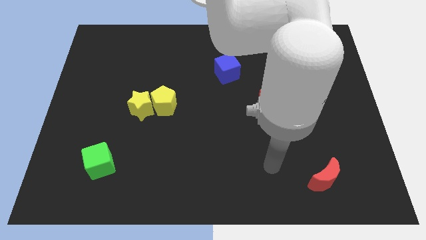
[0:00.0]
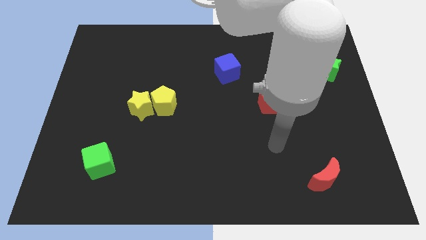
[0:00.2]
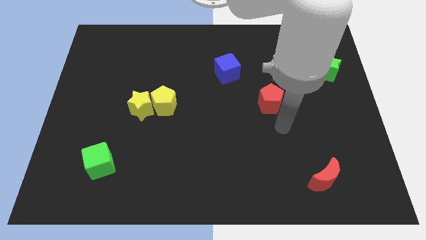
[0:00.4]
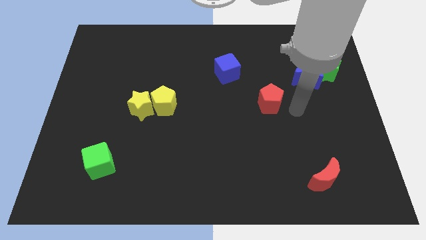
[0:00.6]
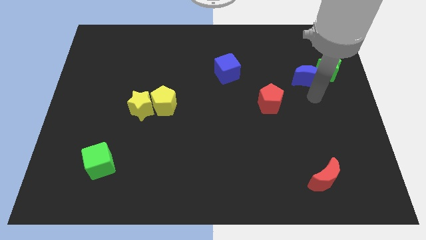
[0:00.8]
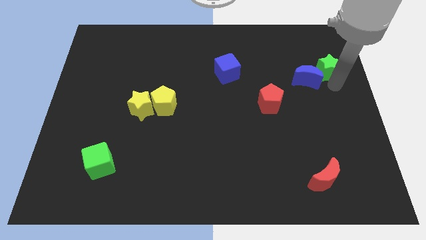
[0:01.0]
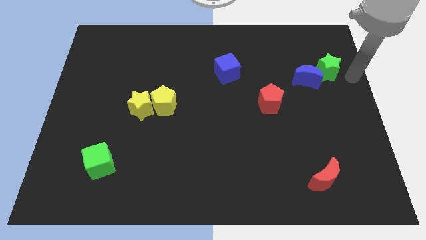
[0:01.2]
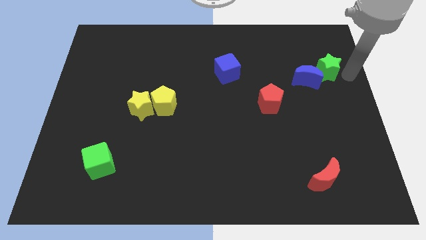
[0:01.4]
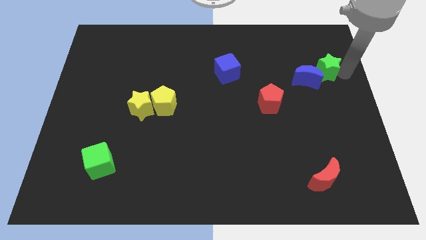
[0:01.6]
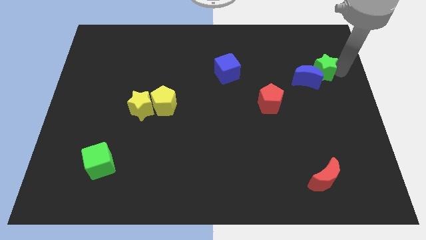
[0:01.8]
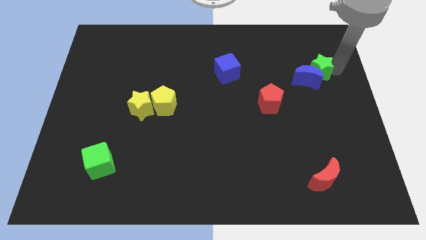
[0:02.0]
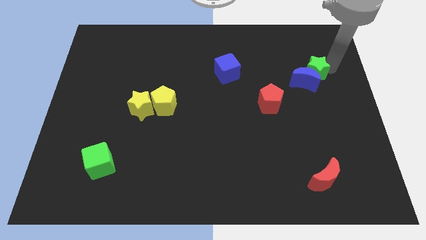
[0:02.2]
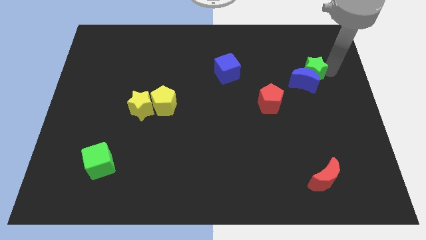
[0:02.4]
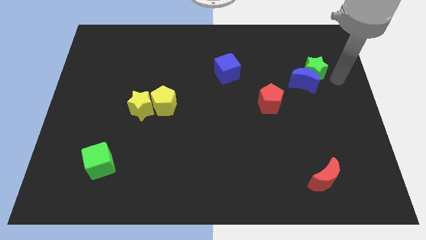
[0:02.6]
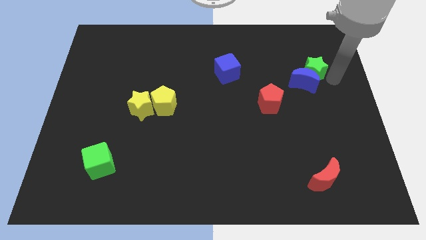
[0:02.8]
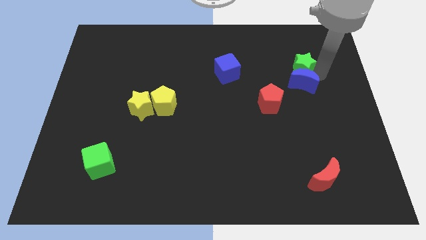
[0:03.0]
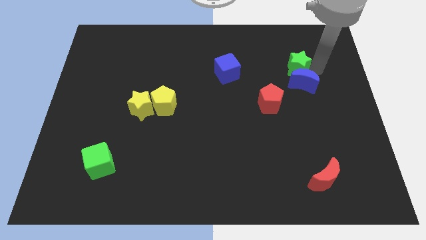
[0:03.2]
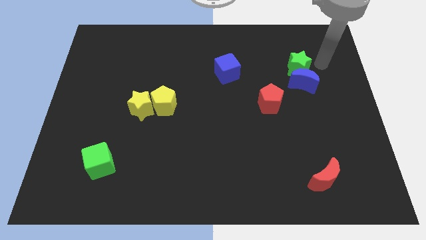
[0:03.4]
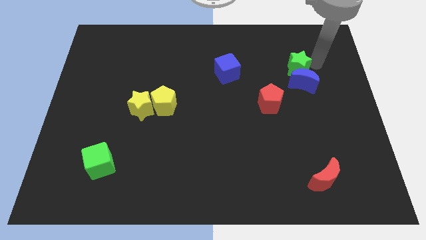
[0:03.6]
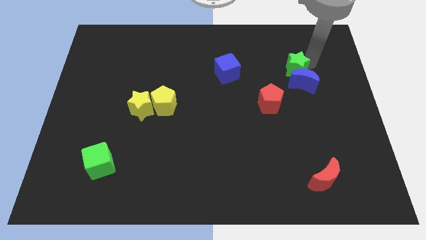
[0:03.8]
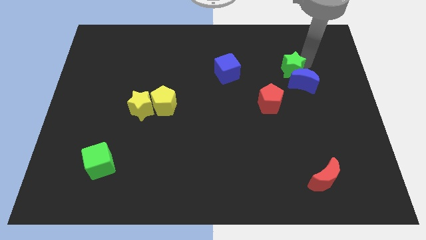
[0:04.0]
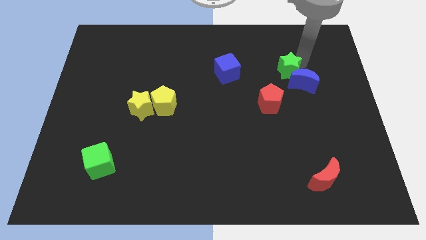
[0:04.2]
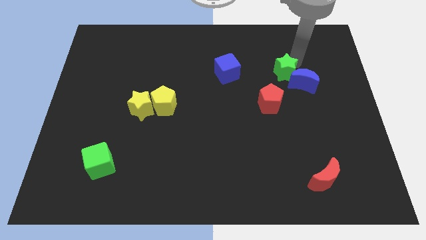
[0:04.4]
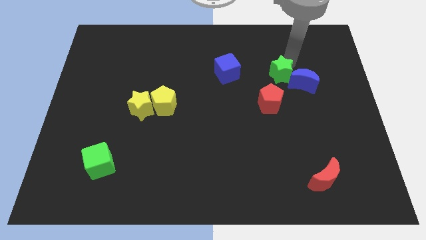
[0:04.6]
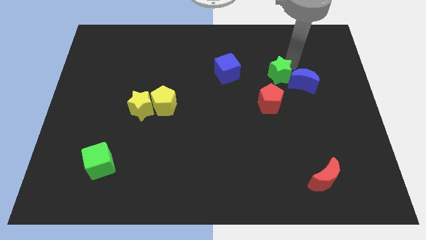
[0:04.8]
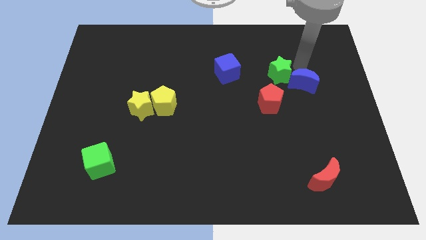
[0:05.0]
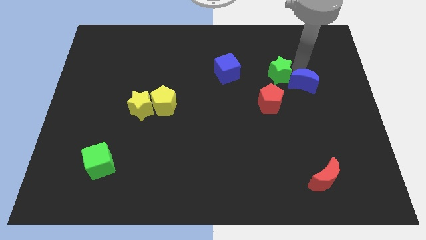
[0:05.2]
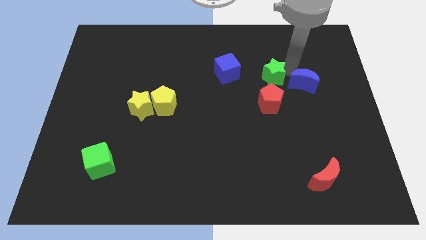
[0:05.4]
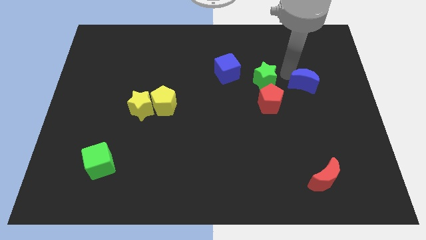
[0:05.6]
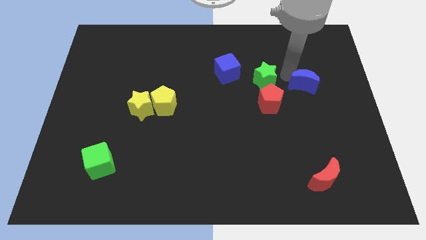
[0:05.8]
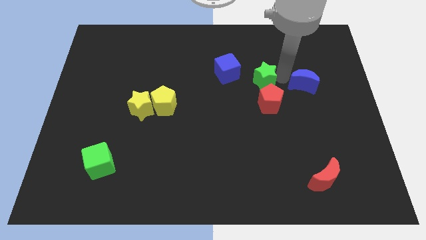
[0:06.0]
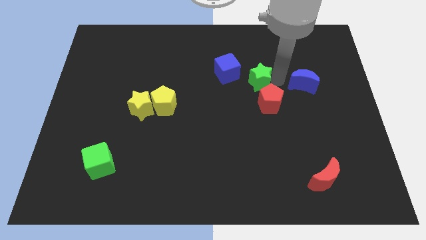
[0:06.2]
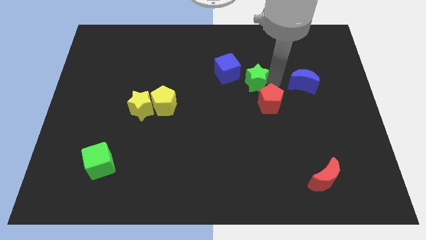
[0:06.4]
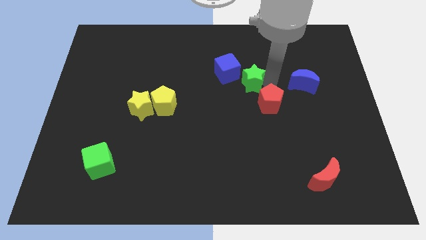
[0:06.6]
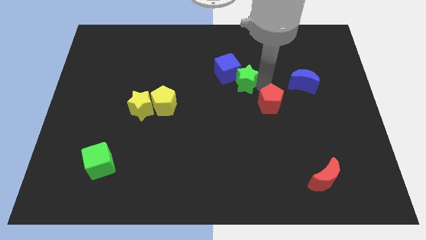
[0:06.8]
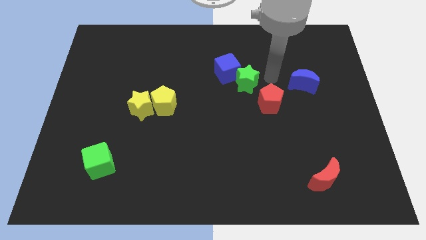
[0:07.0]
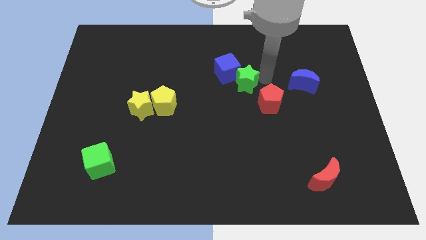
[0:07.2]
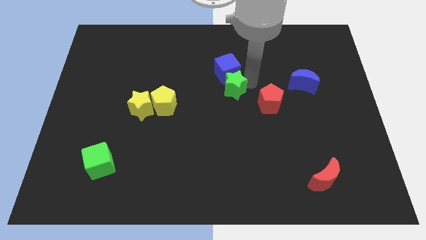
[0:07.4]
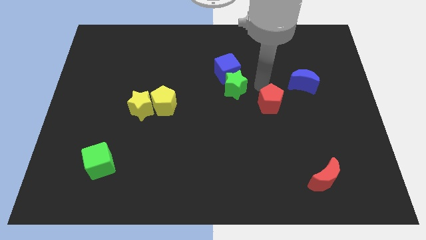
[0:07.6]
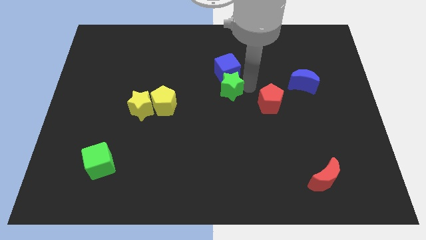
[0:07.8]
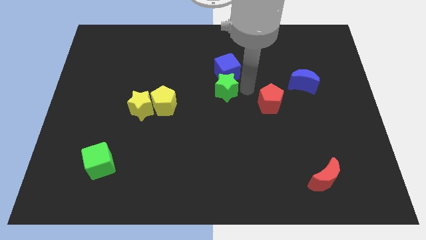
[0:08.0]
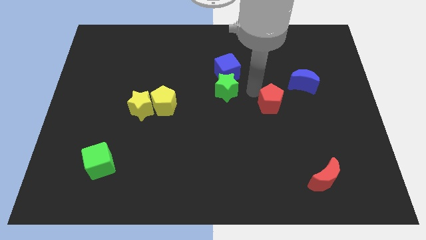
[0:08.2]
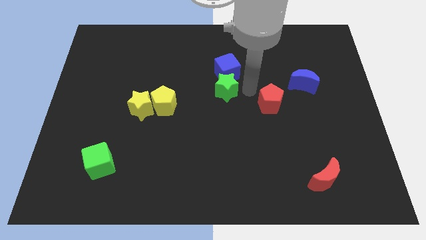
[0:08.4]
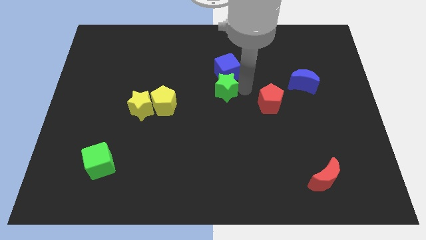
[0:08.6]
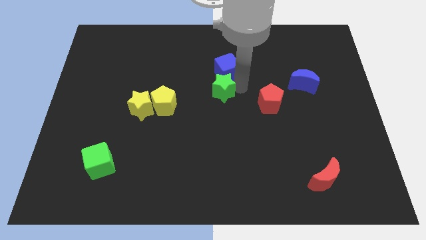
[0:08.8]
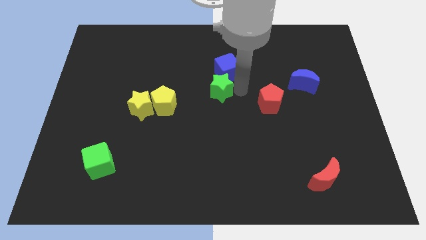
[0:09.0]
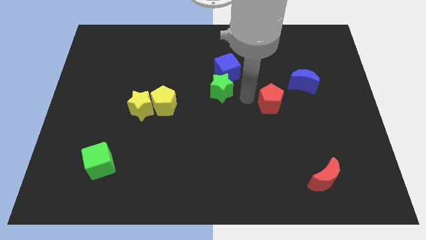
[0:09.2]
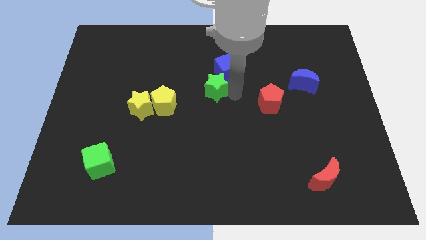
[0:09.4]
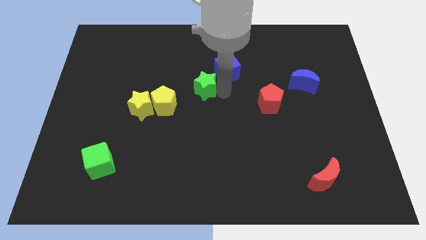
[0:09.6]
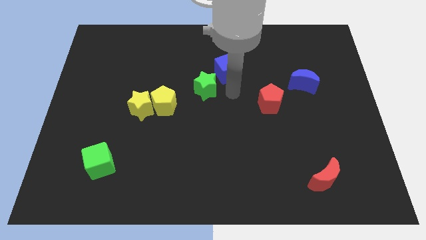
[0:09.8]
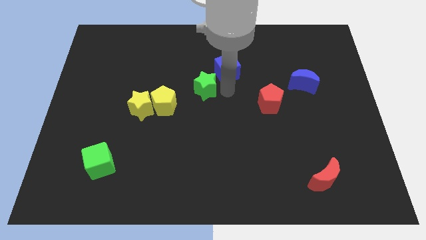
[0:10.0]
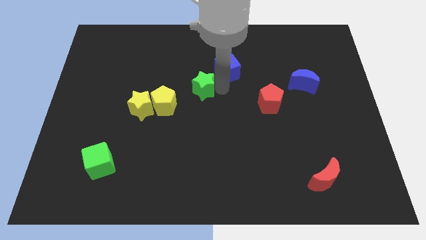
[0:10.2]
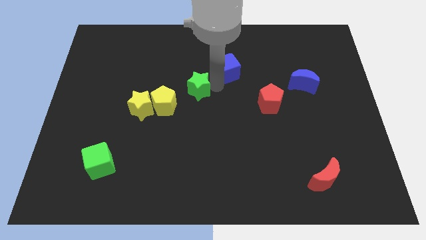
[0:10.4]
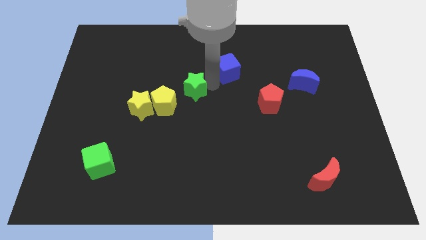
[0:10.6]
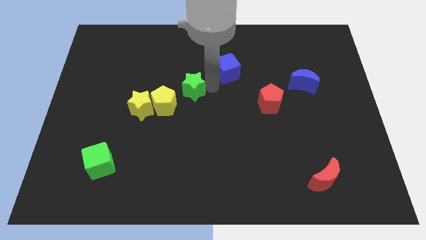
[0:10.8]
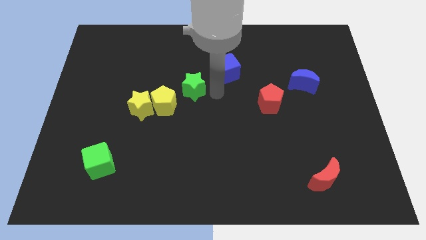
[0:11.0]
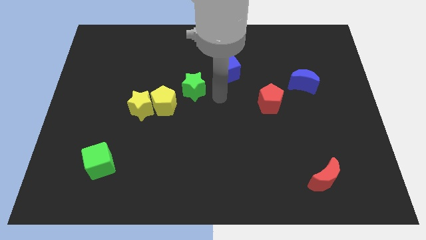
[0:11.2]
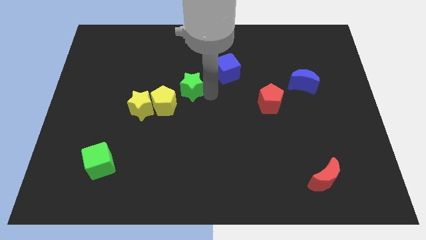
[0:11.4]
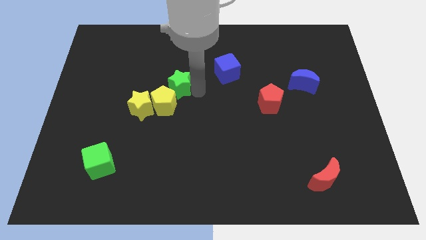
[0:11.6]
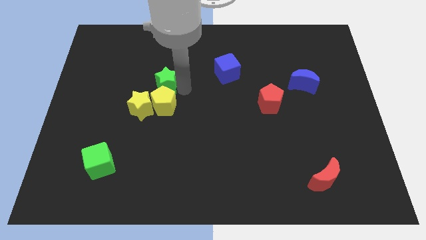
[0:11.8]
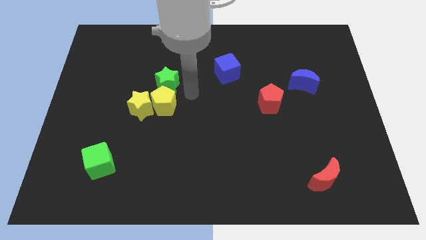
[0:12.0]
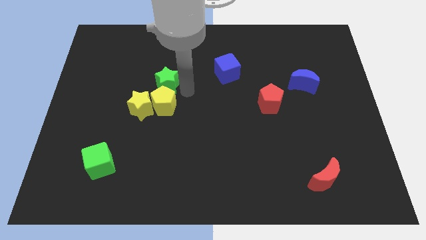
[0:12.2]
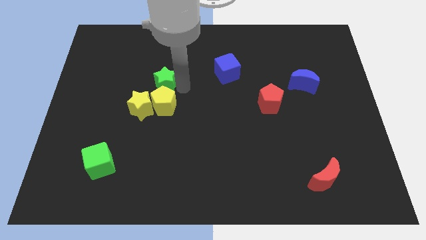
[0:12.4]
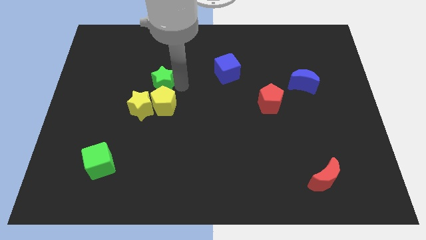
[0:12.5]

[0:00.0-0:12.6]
push the green star to the top of the yellow star

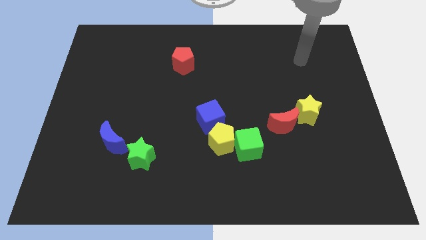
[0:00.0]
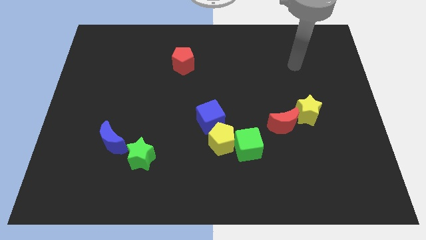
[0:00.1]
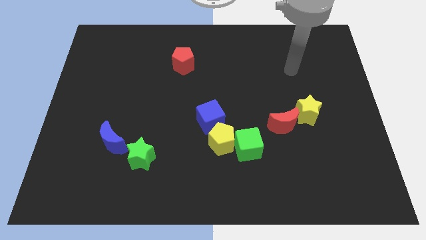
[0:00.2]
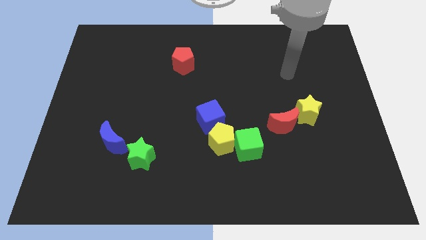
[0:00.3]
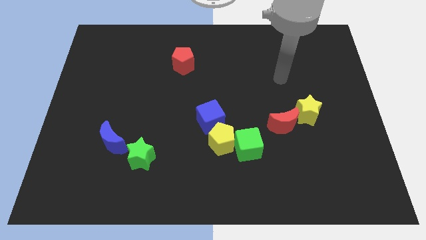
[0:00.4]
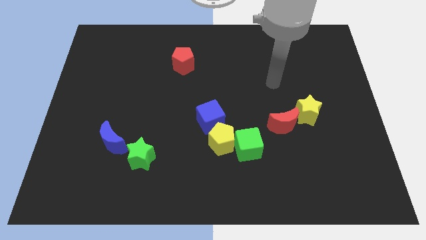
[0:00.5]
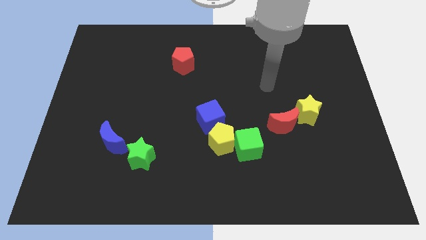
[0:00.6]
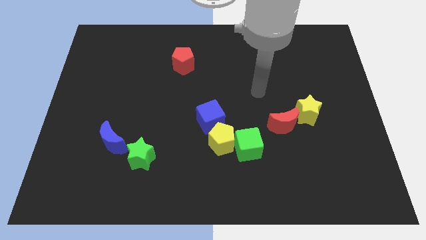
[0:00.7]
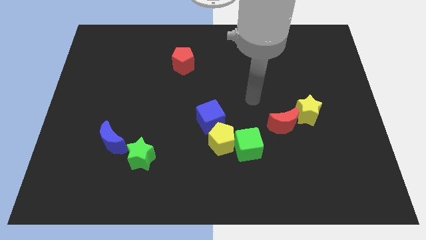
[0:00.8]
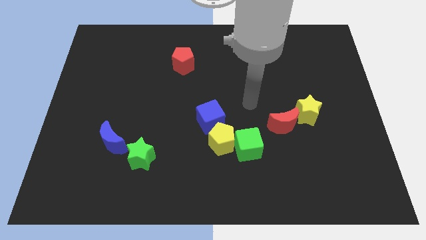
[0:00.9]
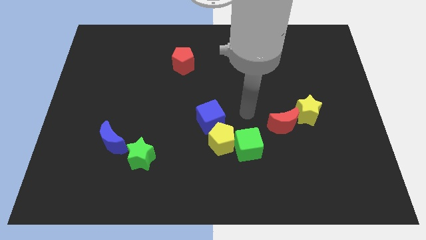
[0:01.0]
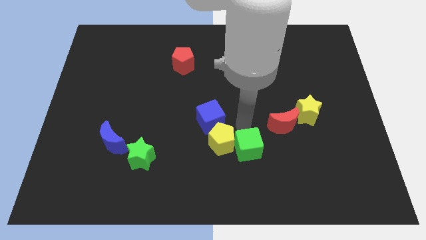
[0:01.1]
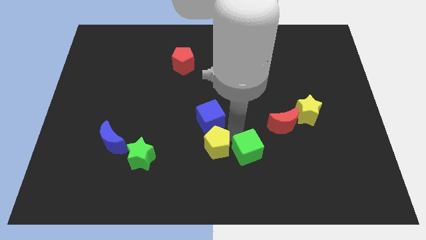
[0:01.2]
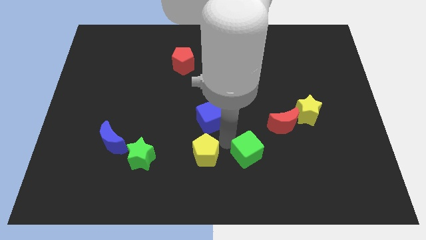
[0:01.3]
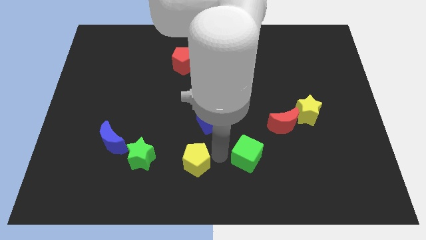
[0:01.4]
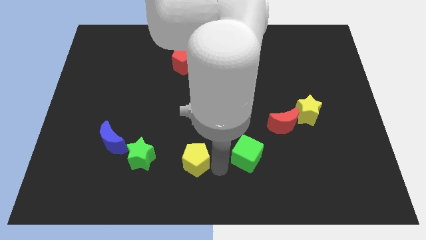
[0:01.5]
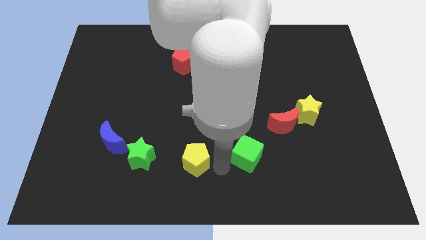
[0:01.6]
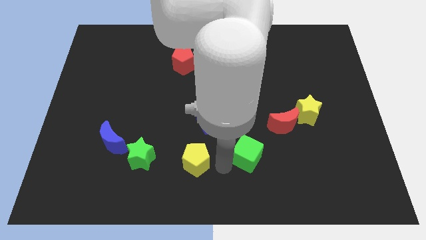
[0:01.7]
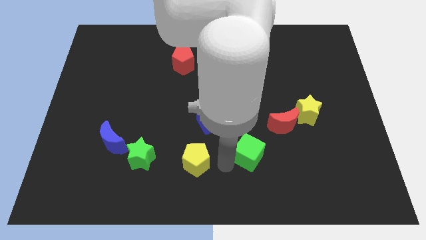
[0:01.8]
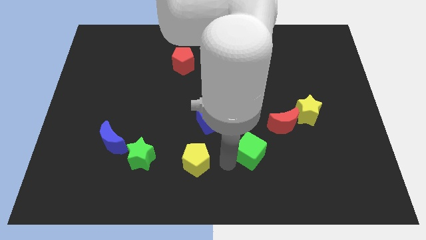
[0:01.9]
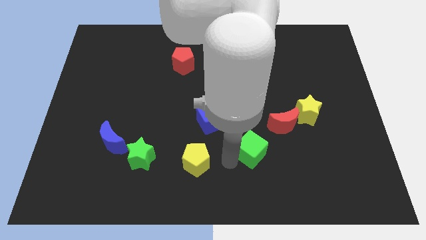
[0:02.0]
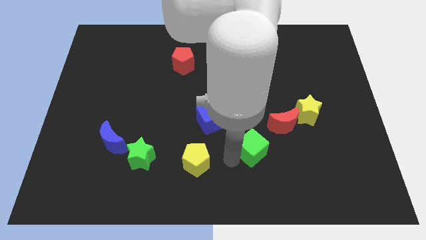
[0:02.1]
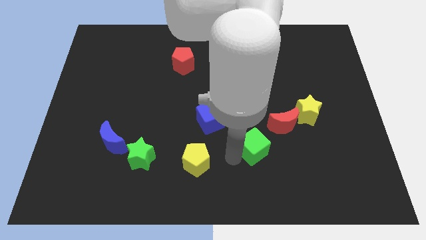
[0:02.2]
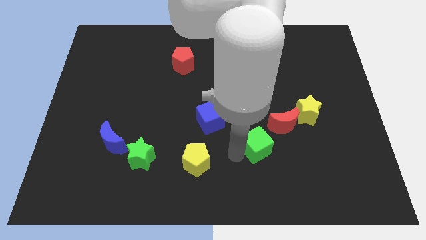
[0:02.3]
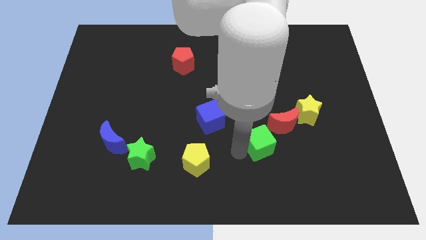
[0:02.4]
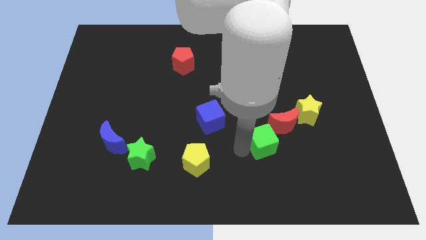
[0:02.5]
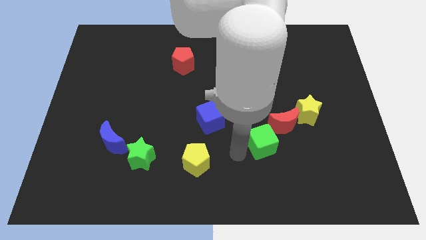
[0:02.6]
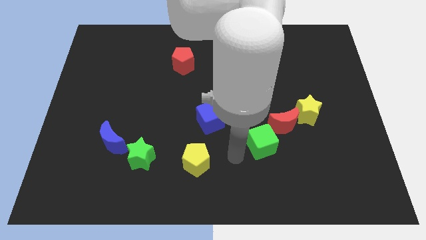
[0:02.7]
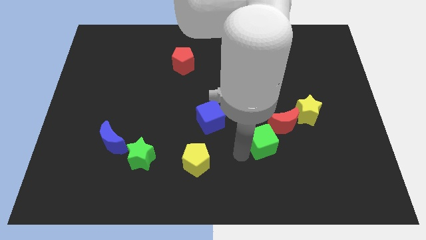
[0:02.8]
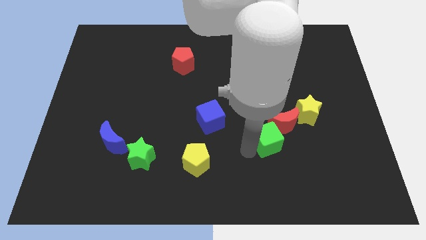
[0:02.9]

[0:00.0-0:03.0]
move the green cube to the bottom left of the yellow star
